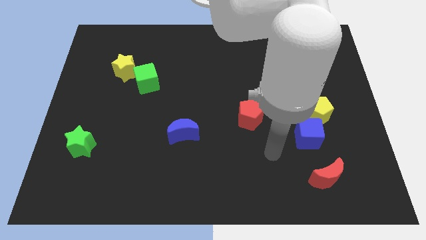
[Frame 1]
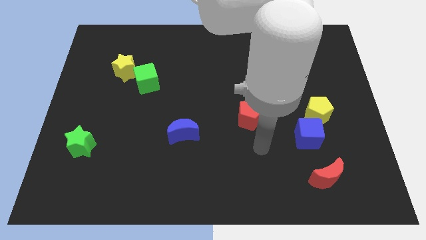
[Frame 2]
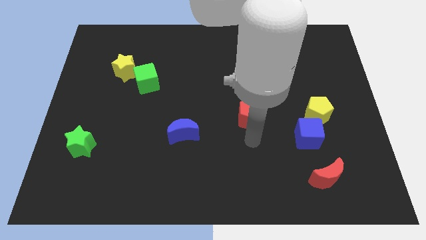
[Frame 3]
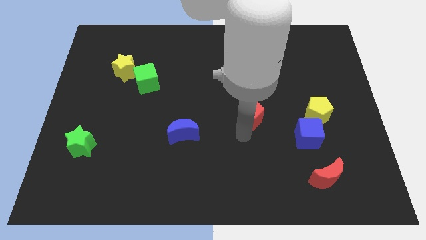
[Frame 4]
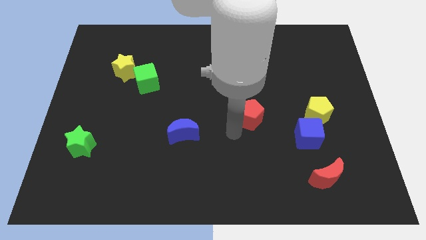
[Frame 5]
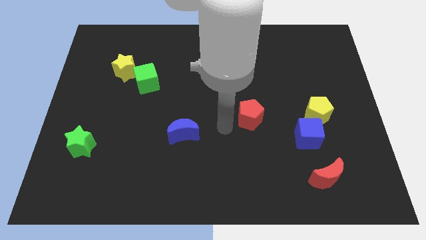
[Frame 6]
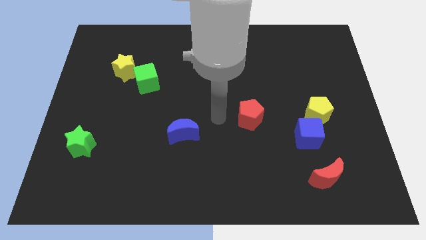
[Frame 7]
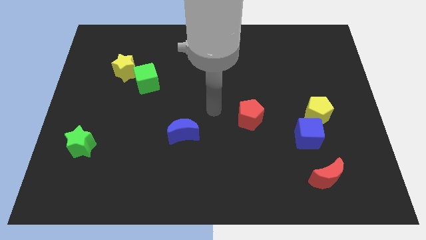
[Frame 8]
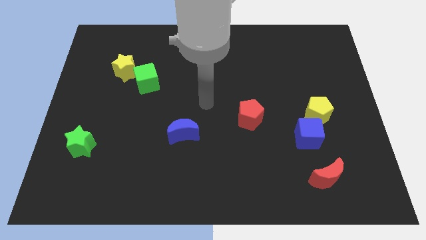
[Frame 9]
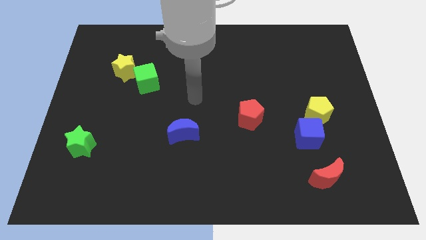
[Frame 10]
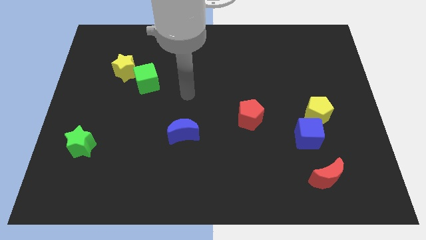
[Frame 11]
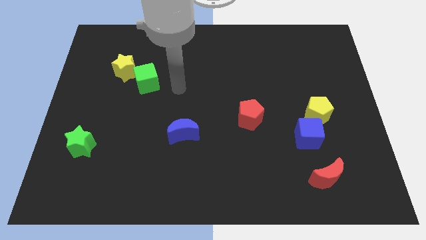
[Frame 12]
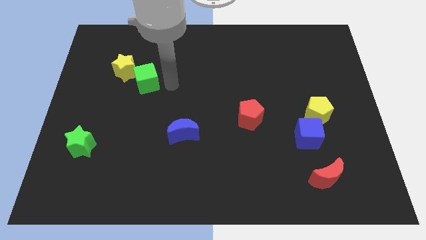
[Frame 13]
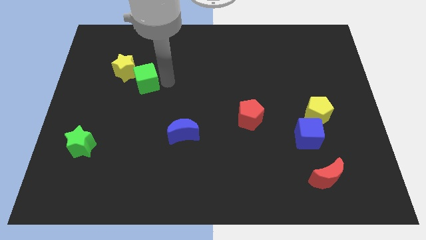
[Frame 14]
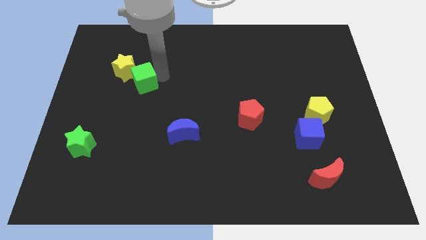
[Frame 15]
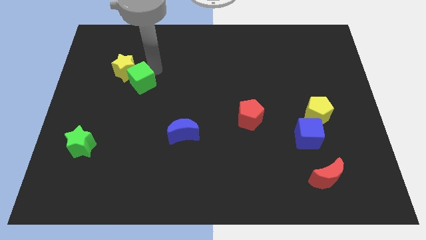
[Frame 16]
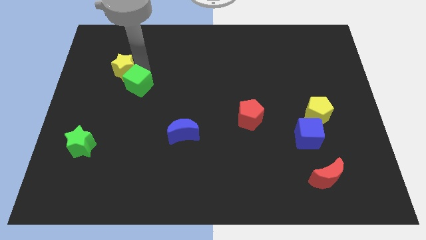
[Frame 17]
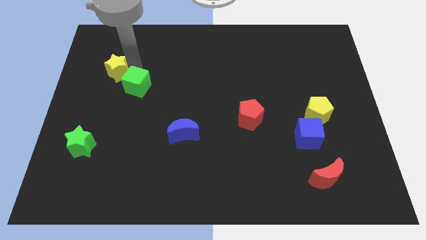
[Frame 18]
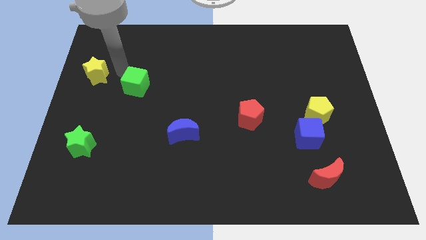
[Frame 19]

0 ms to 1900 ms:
move the green cube away from the yellow star

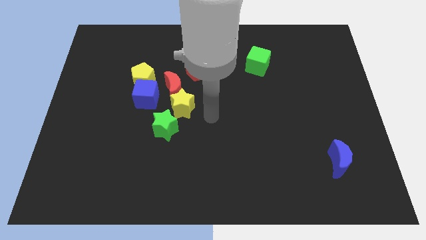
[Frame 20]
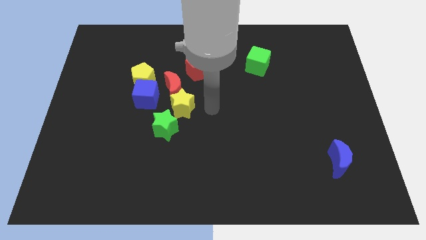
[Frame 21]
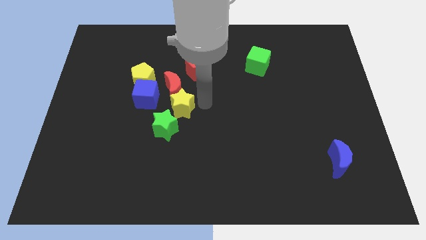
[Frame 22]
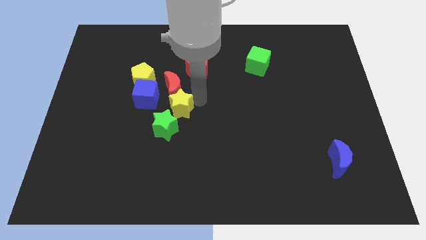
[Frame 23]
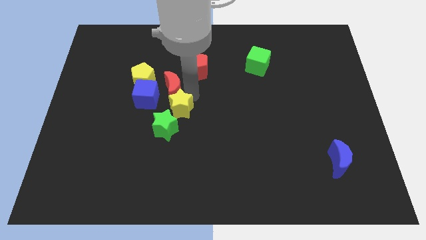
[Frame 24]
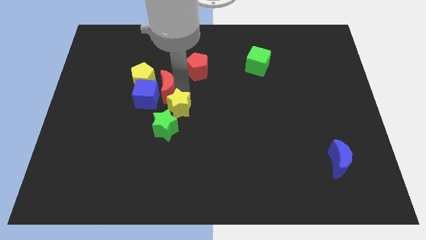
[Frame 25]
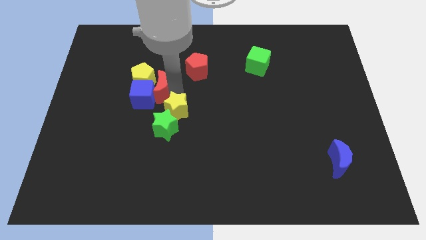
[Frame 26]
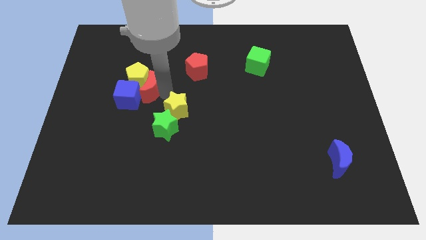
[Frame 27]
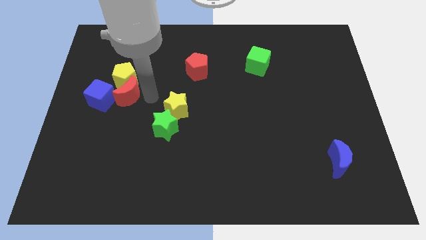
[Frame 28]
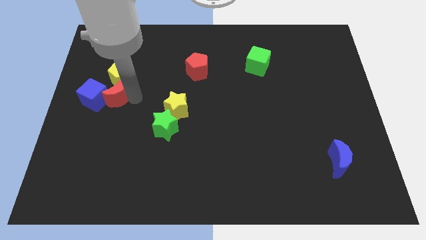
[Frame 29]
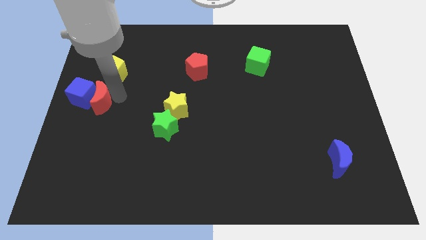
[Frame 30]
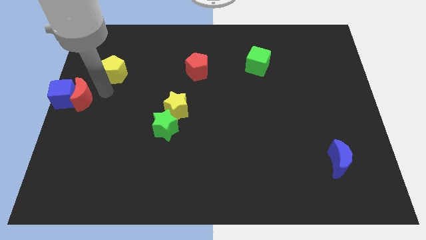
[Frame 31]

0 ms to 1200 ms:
pull the yellow pentagon apart from the blue cube and red moon

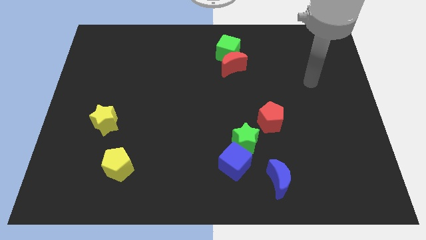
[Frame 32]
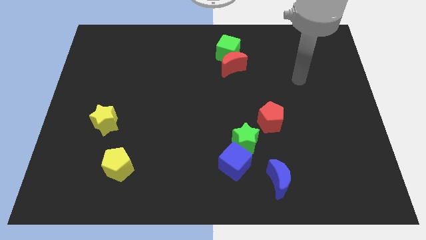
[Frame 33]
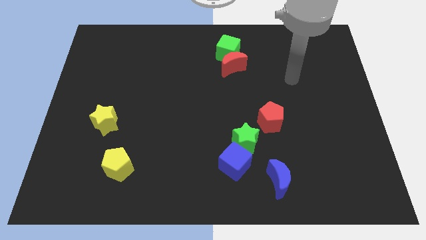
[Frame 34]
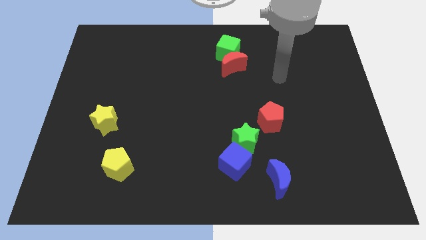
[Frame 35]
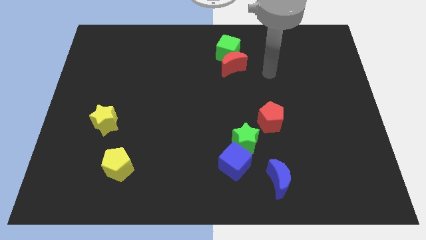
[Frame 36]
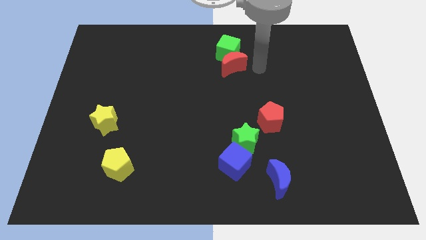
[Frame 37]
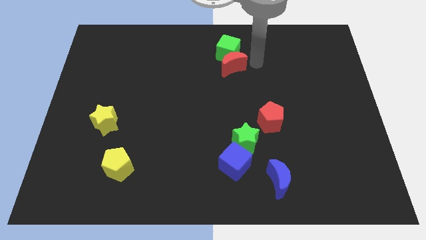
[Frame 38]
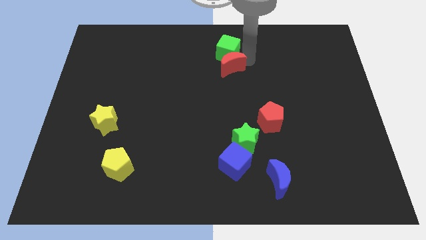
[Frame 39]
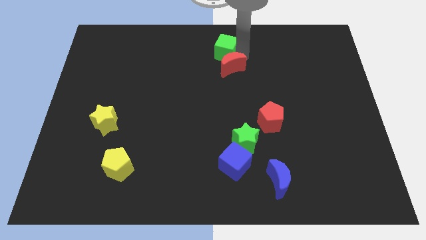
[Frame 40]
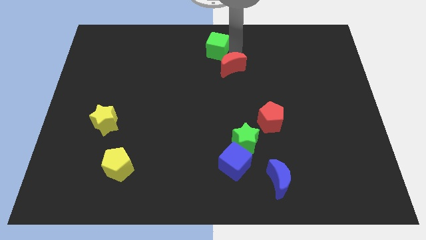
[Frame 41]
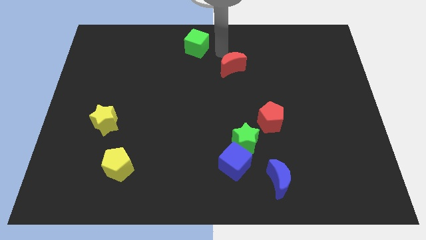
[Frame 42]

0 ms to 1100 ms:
move the red moon away from the green cube

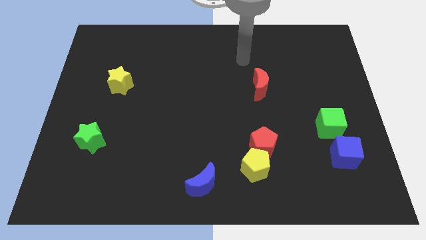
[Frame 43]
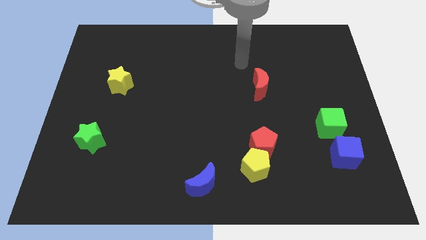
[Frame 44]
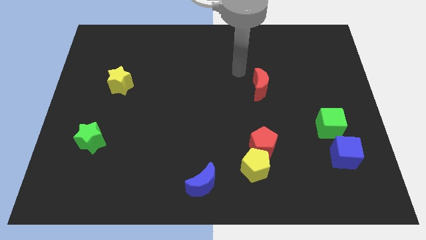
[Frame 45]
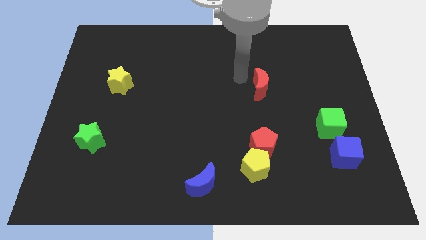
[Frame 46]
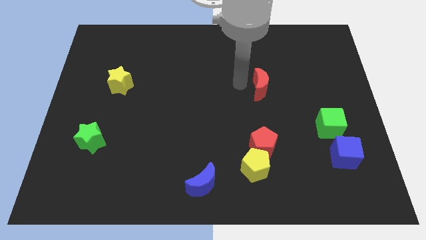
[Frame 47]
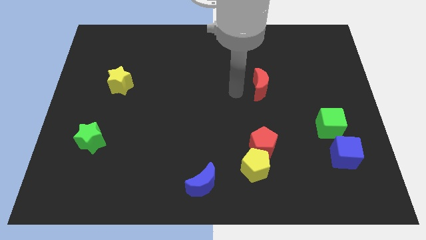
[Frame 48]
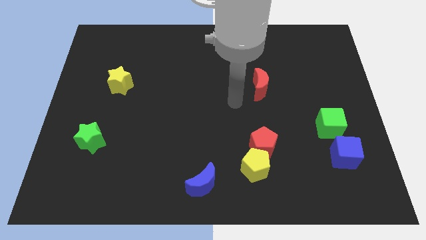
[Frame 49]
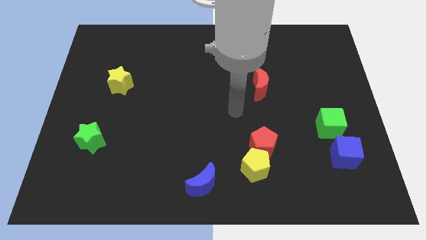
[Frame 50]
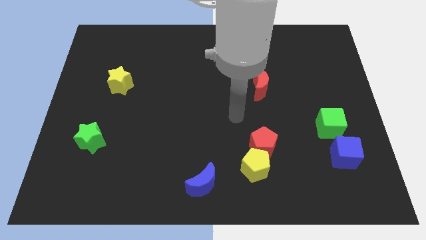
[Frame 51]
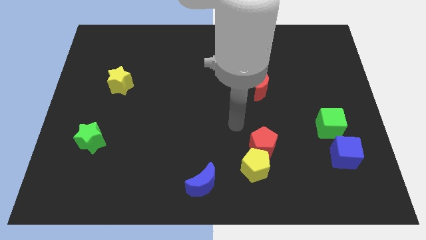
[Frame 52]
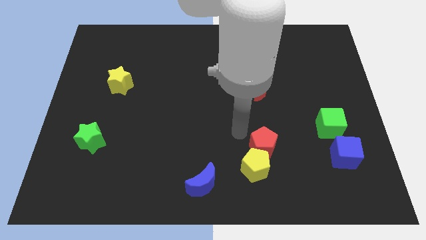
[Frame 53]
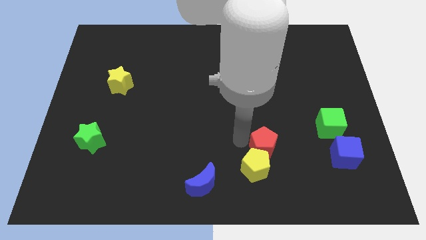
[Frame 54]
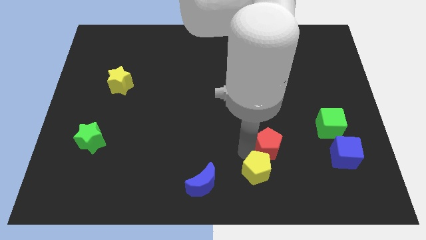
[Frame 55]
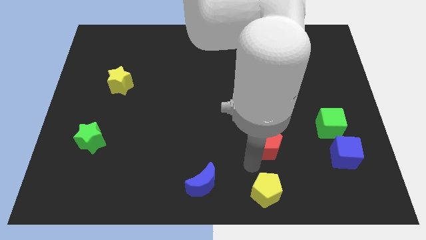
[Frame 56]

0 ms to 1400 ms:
pull the red pentagon apart from the yellow pentagon

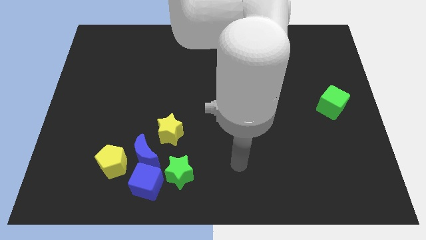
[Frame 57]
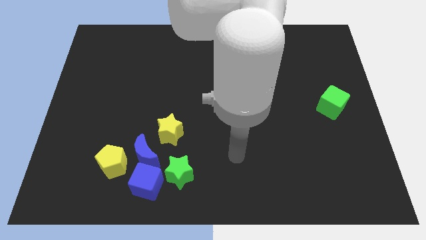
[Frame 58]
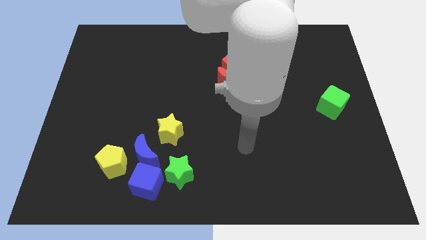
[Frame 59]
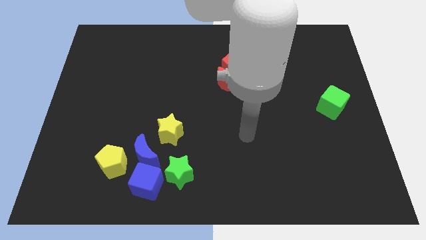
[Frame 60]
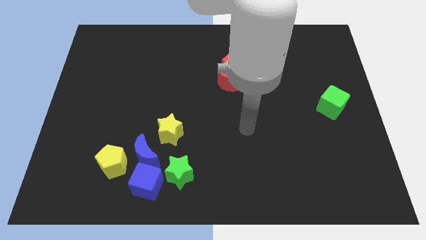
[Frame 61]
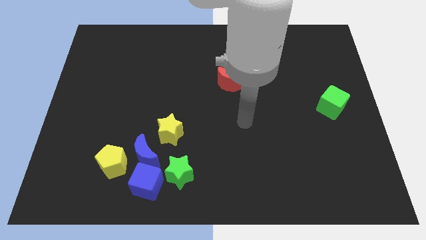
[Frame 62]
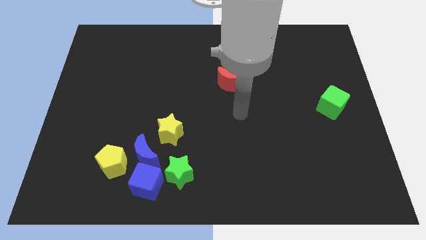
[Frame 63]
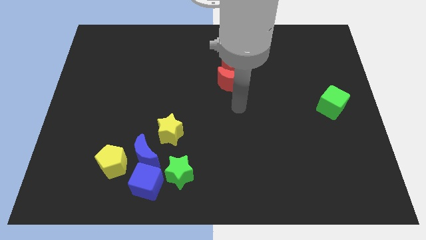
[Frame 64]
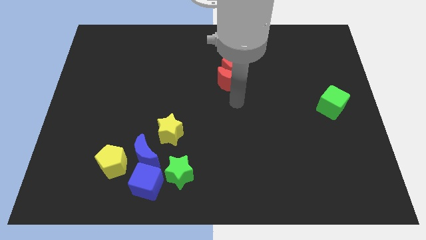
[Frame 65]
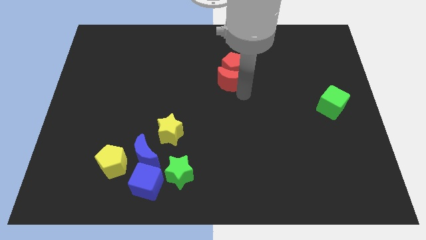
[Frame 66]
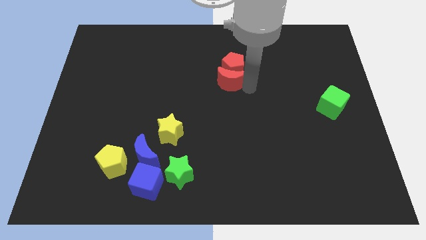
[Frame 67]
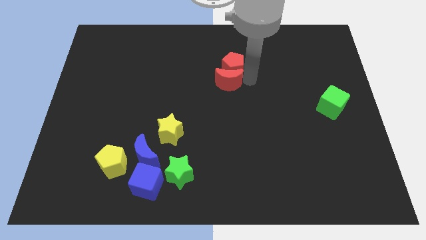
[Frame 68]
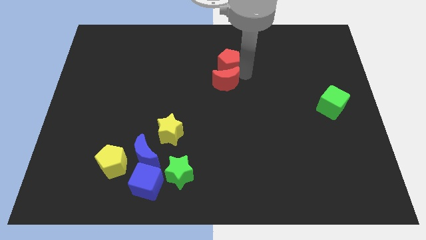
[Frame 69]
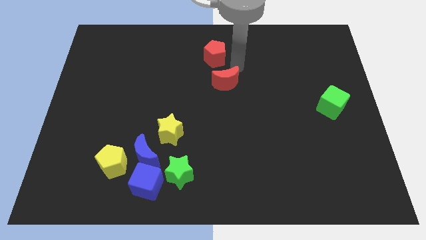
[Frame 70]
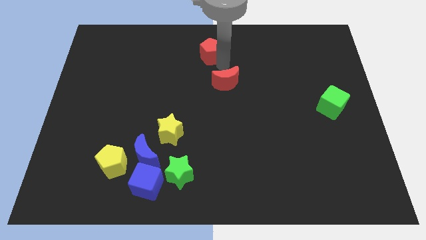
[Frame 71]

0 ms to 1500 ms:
pull the red moon apart from the red pentagon

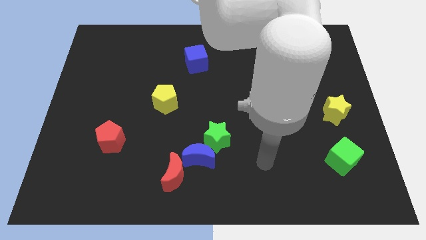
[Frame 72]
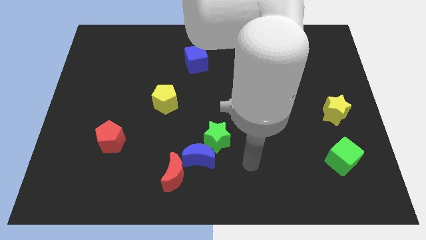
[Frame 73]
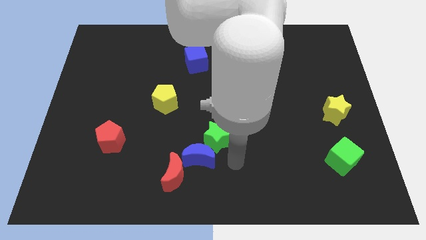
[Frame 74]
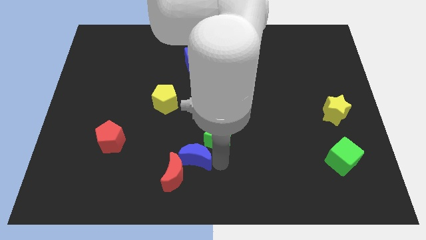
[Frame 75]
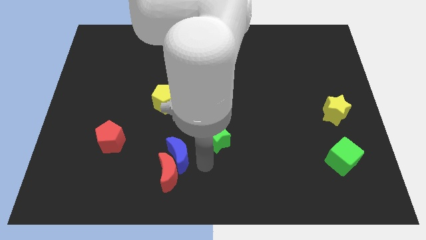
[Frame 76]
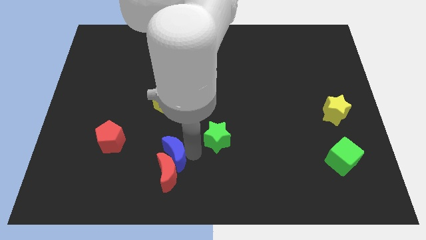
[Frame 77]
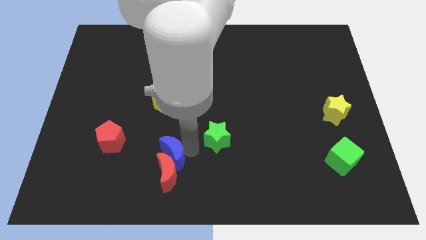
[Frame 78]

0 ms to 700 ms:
move the green star away from the blue moon

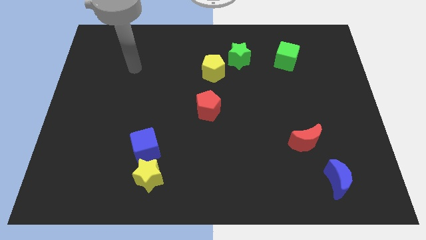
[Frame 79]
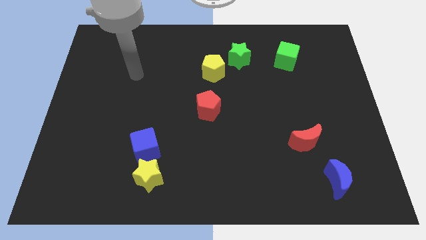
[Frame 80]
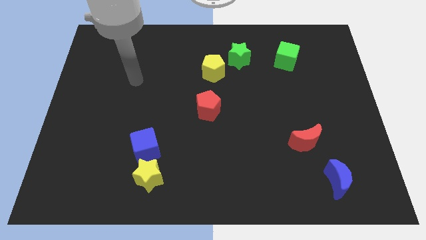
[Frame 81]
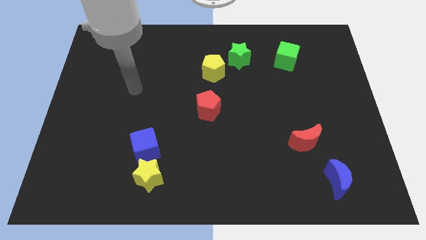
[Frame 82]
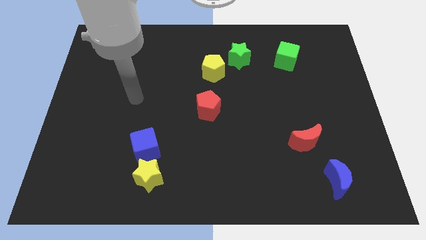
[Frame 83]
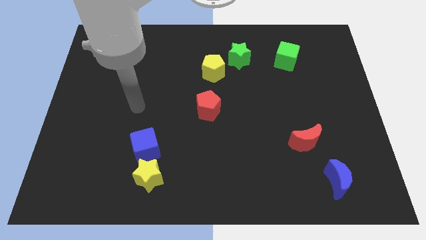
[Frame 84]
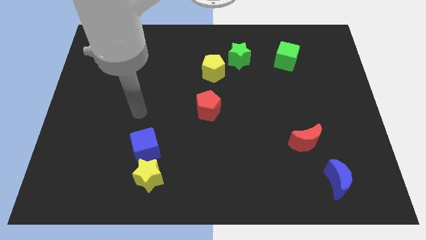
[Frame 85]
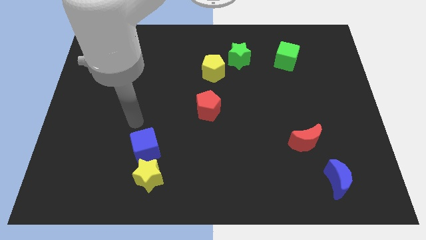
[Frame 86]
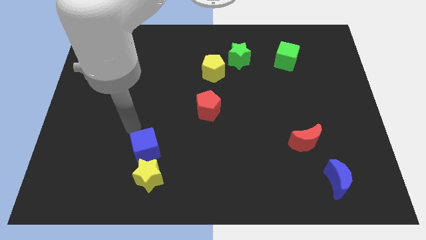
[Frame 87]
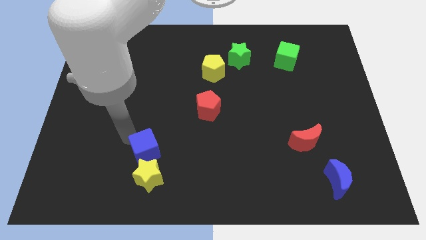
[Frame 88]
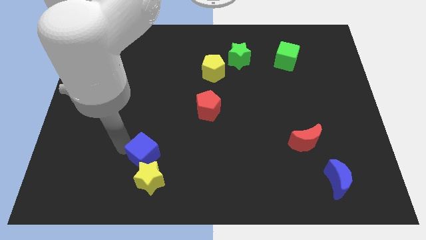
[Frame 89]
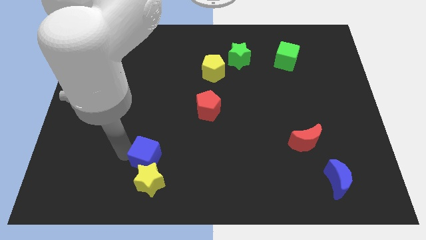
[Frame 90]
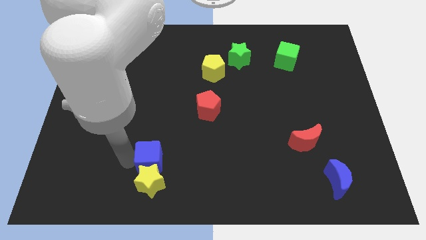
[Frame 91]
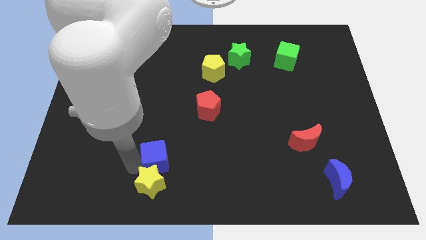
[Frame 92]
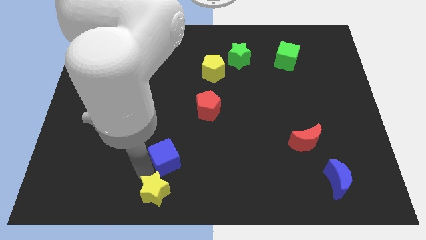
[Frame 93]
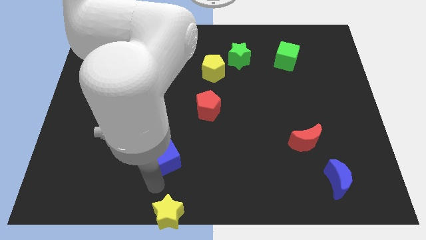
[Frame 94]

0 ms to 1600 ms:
separate the blue cube from the yellow star
